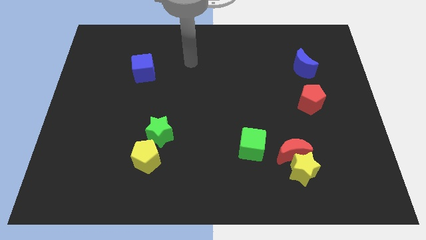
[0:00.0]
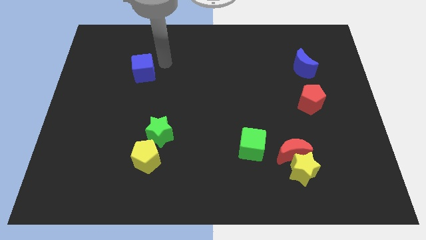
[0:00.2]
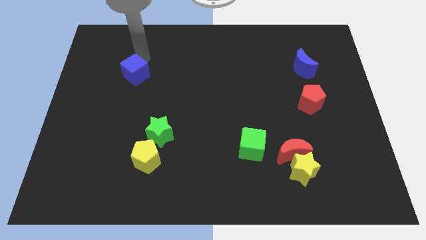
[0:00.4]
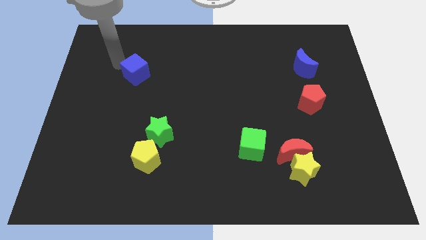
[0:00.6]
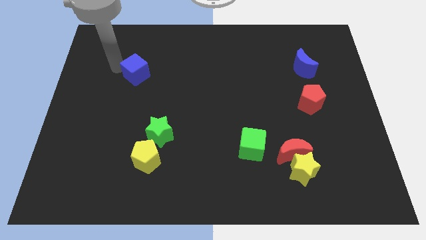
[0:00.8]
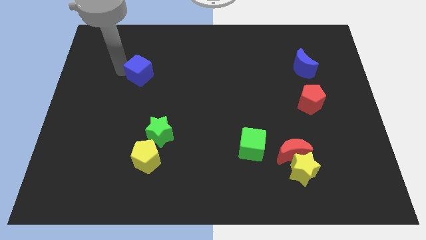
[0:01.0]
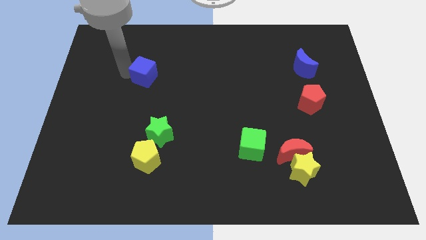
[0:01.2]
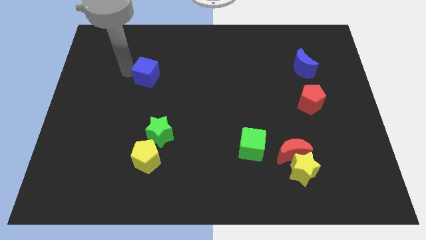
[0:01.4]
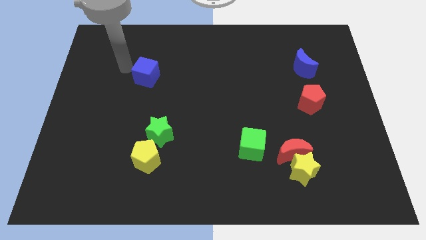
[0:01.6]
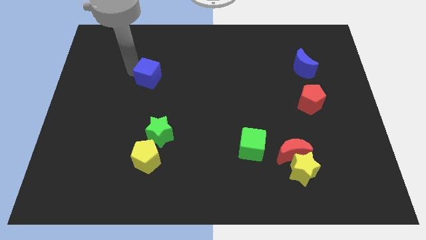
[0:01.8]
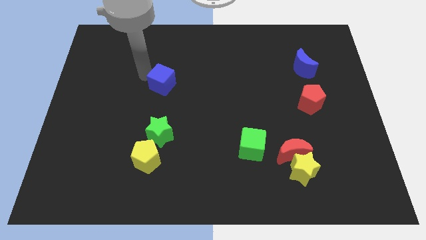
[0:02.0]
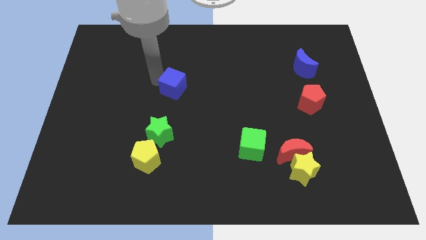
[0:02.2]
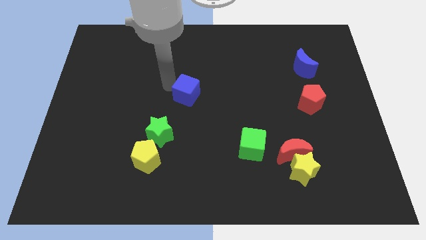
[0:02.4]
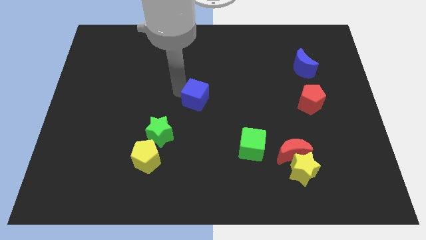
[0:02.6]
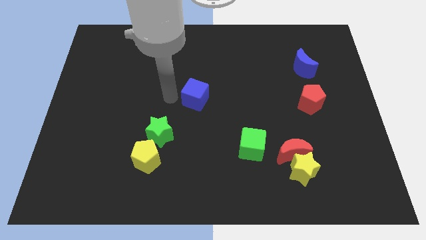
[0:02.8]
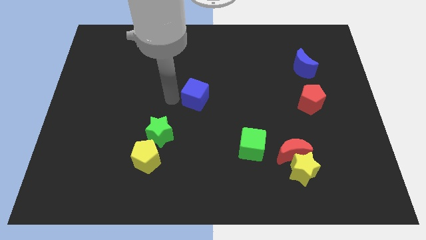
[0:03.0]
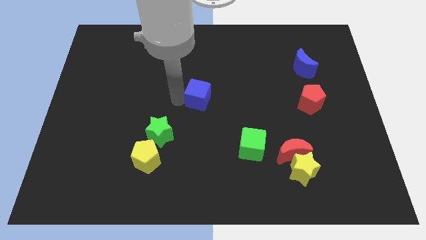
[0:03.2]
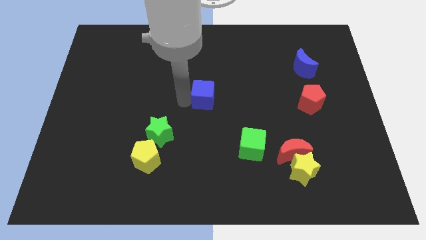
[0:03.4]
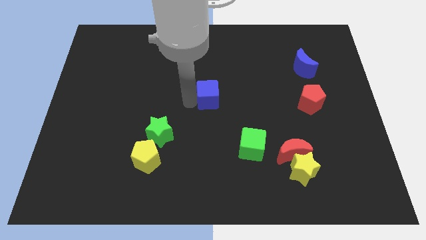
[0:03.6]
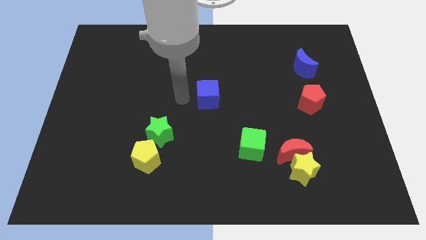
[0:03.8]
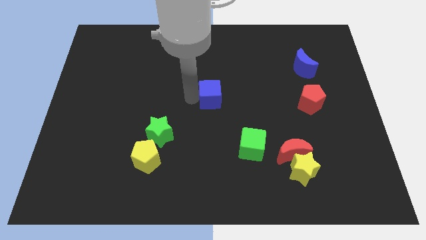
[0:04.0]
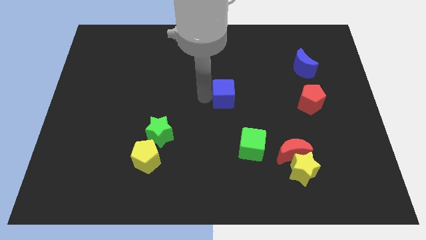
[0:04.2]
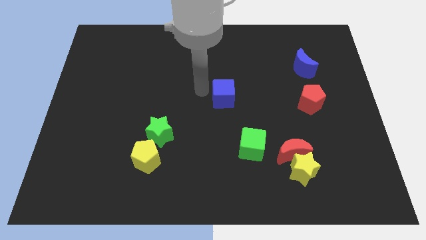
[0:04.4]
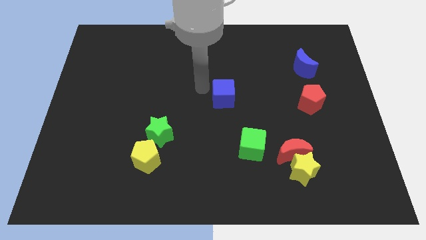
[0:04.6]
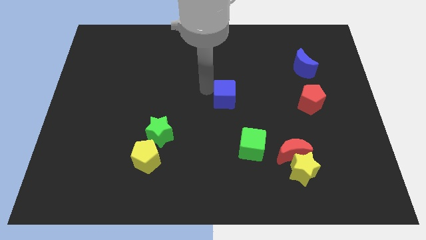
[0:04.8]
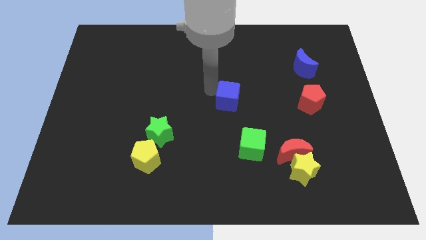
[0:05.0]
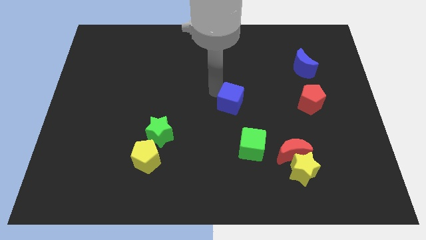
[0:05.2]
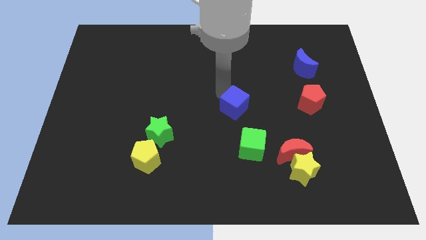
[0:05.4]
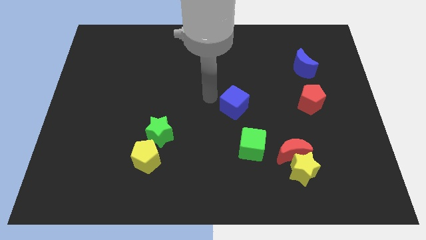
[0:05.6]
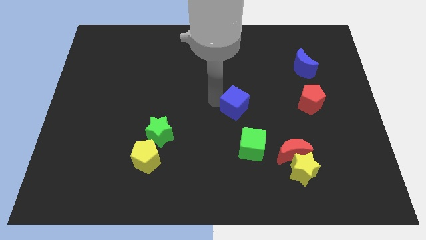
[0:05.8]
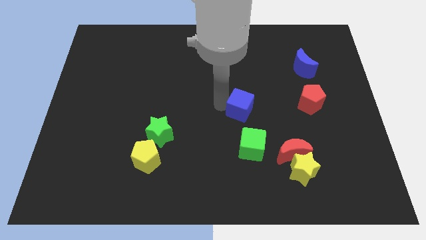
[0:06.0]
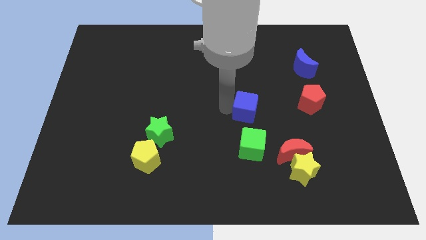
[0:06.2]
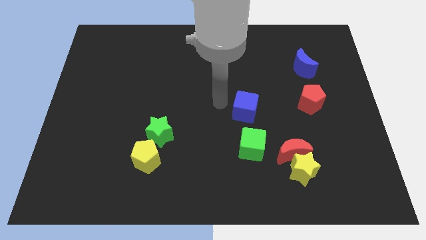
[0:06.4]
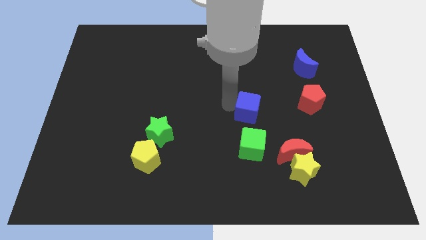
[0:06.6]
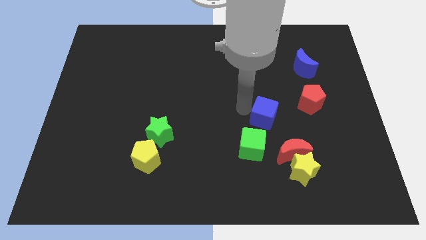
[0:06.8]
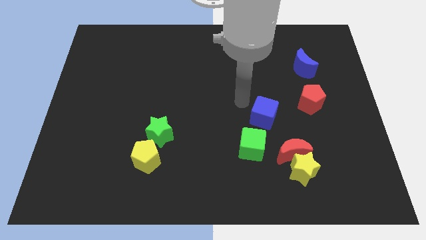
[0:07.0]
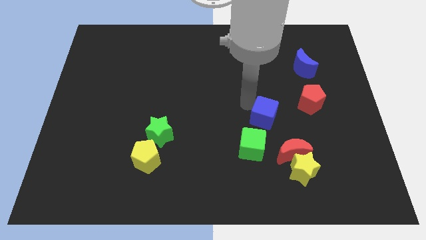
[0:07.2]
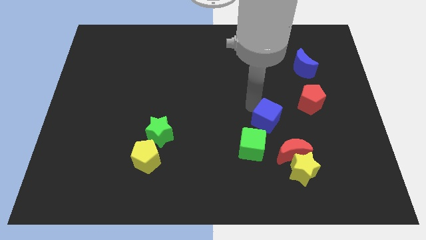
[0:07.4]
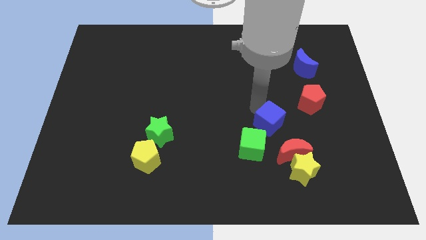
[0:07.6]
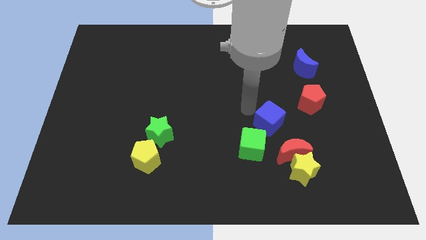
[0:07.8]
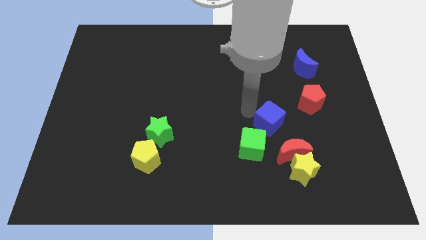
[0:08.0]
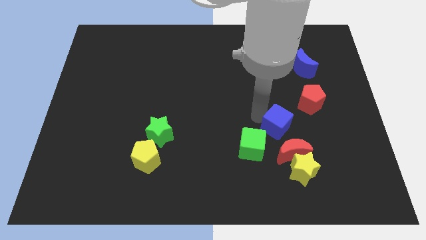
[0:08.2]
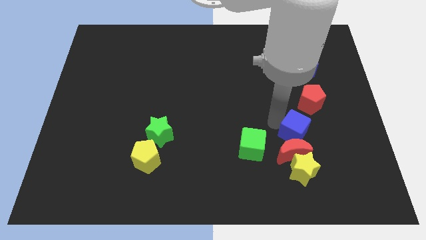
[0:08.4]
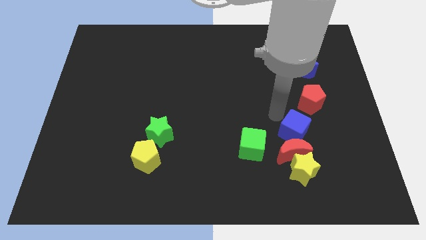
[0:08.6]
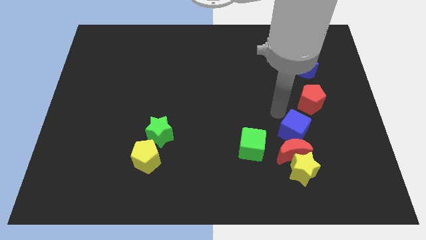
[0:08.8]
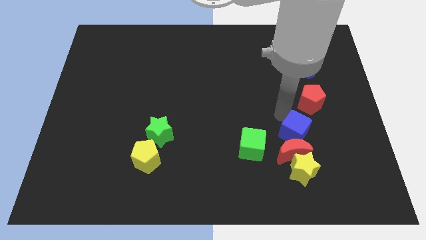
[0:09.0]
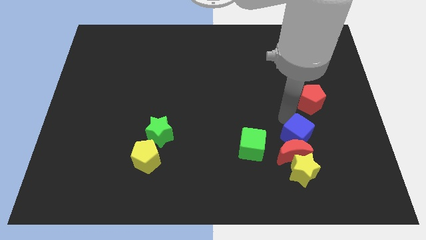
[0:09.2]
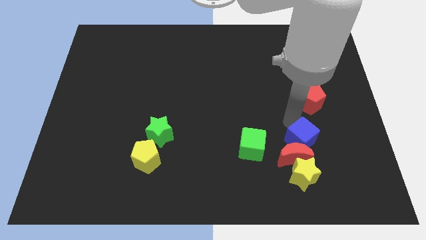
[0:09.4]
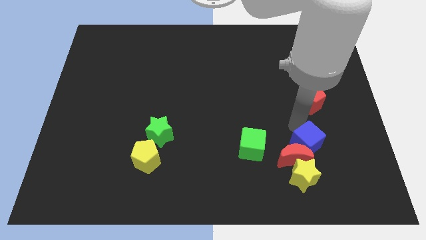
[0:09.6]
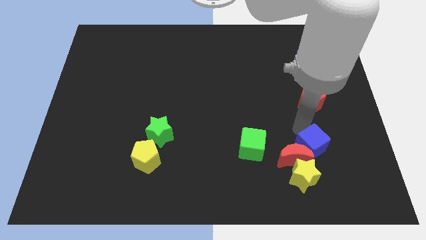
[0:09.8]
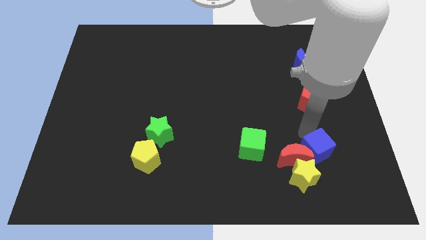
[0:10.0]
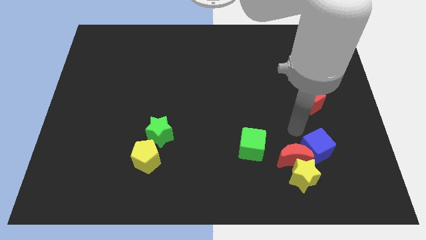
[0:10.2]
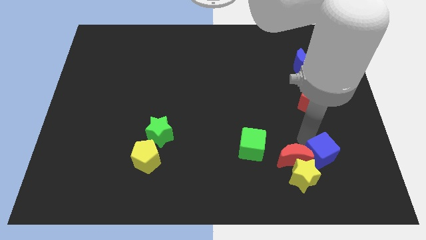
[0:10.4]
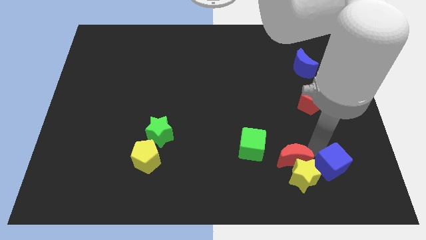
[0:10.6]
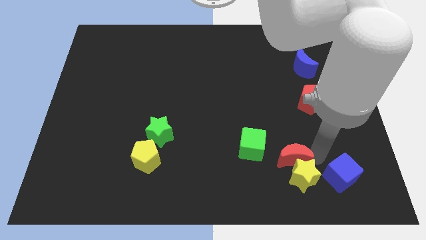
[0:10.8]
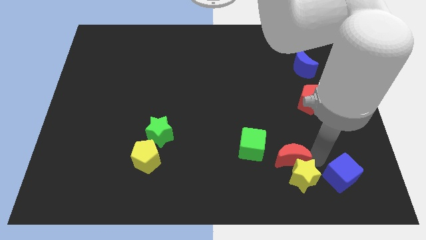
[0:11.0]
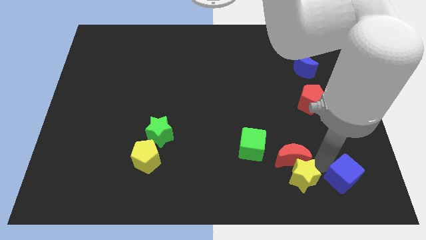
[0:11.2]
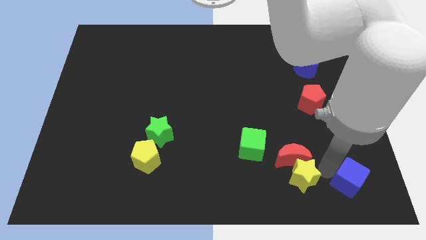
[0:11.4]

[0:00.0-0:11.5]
push the blue cube to the bottom right of the board
